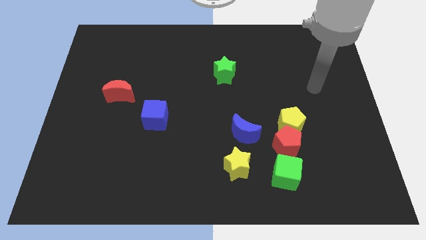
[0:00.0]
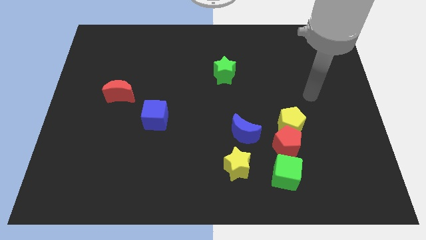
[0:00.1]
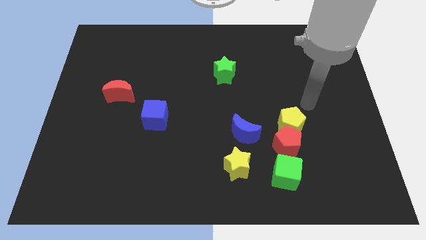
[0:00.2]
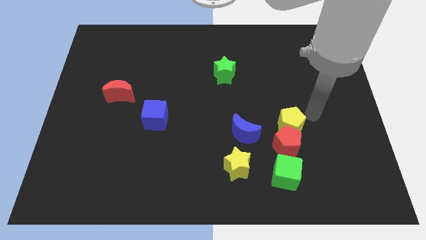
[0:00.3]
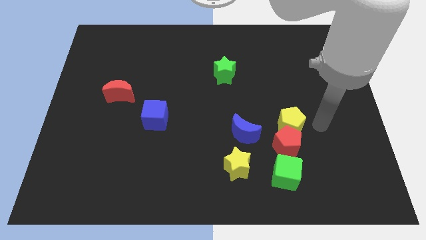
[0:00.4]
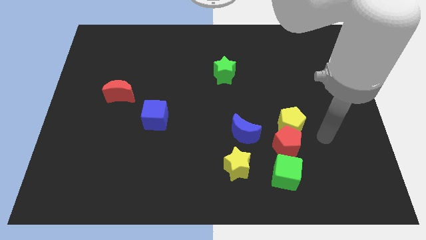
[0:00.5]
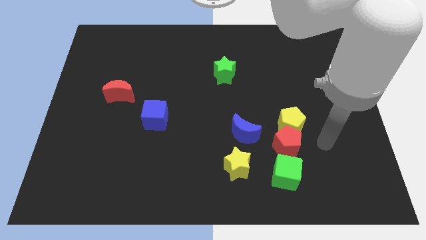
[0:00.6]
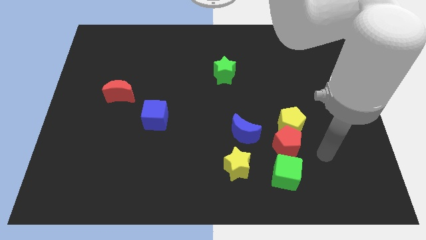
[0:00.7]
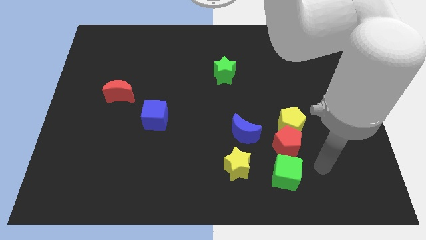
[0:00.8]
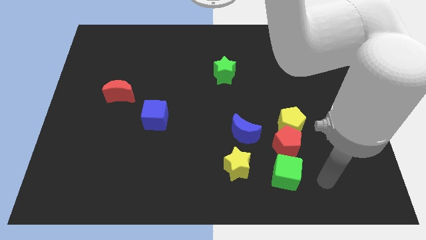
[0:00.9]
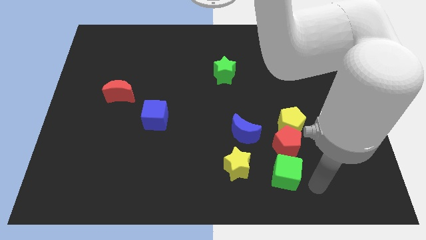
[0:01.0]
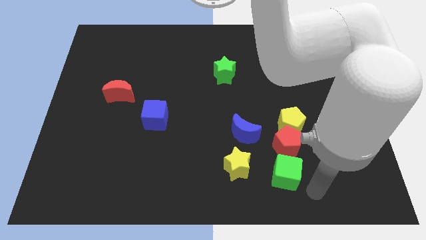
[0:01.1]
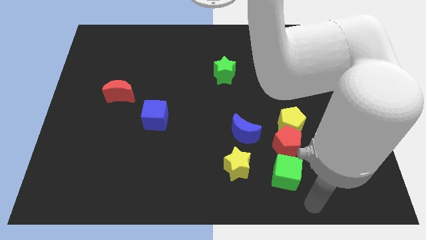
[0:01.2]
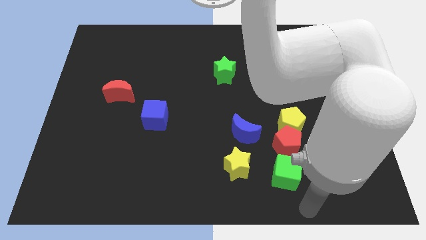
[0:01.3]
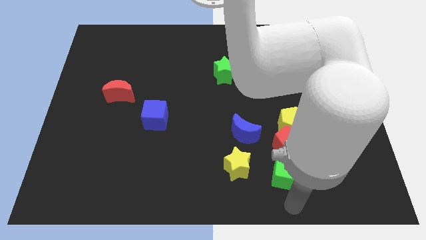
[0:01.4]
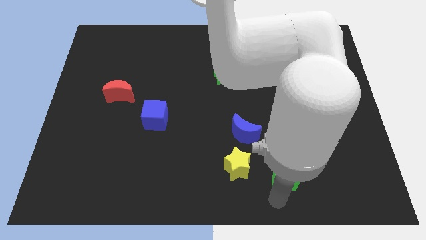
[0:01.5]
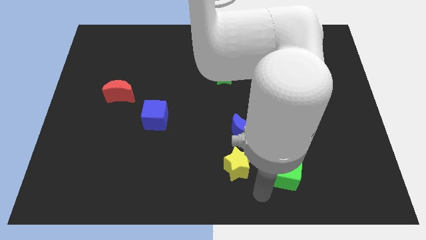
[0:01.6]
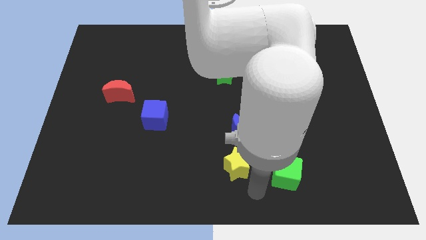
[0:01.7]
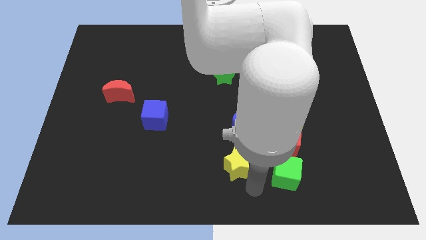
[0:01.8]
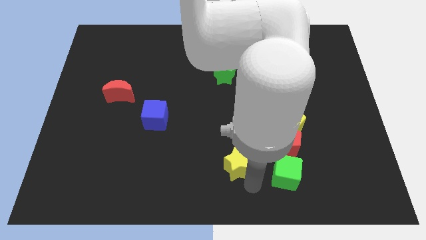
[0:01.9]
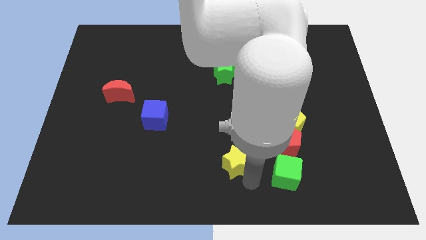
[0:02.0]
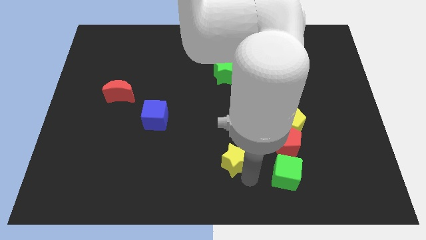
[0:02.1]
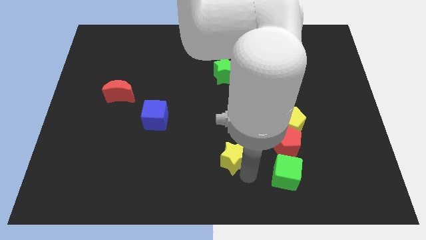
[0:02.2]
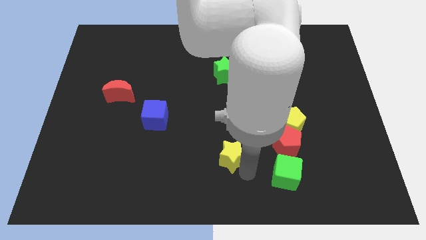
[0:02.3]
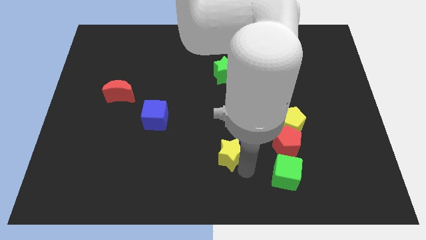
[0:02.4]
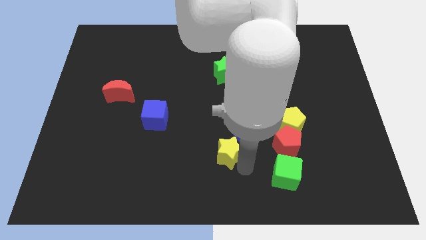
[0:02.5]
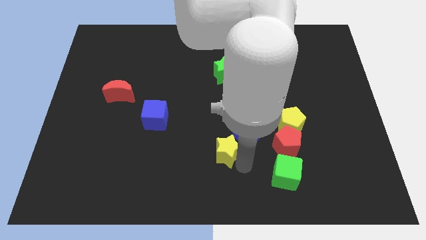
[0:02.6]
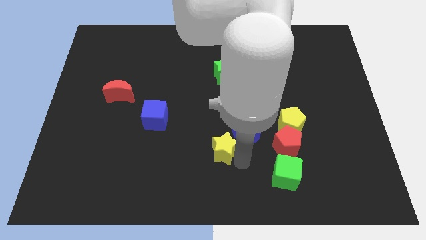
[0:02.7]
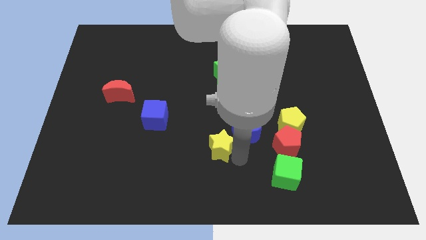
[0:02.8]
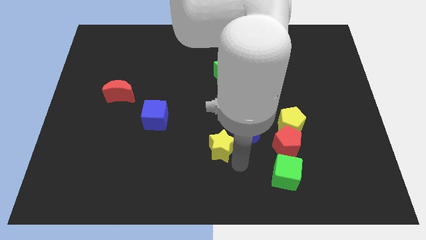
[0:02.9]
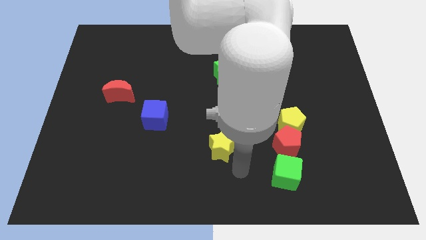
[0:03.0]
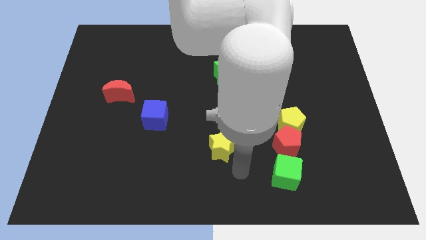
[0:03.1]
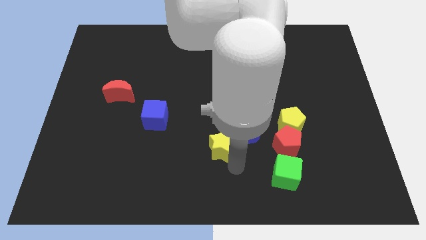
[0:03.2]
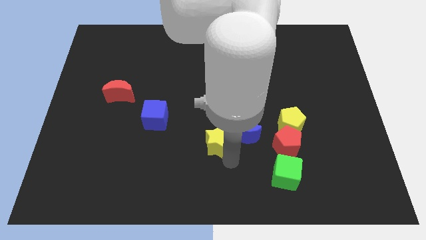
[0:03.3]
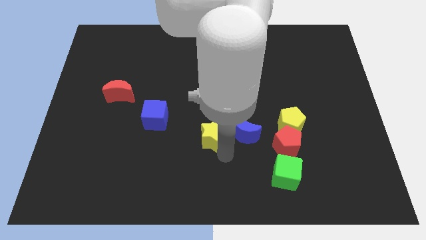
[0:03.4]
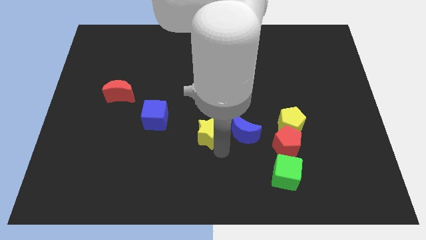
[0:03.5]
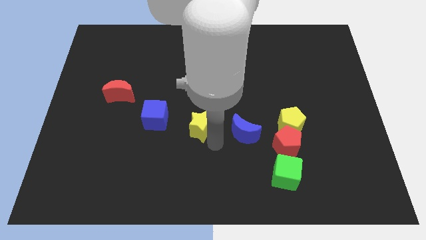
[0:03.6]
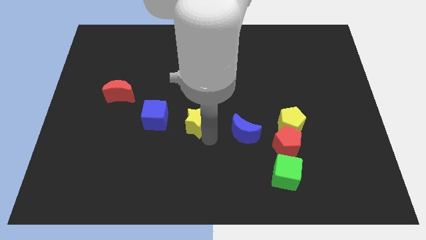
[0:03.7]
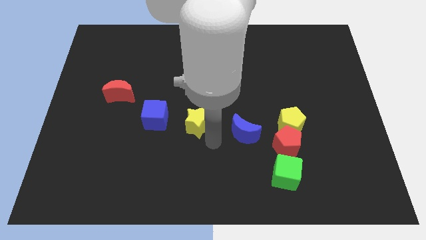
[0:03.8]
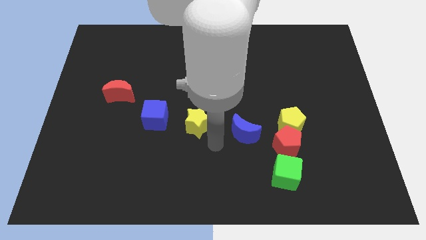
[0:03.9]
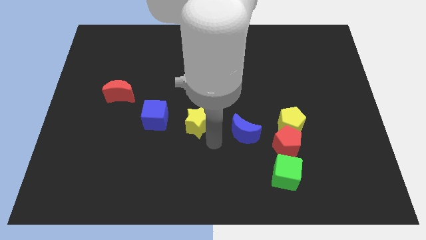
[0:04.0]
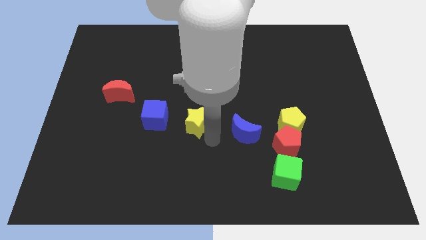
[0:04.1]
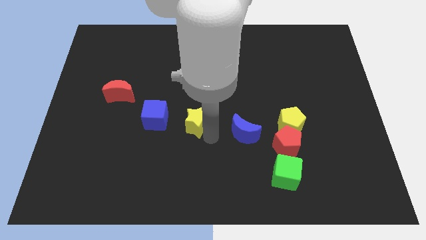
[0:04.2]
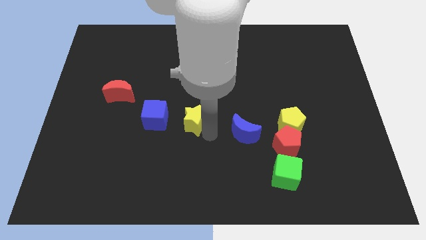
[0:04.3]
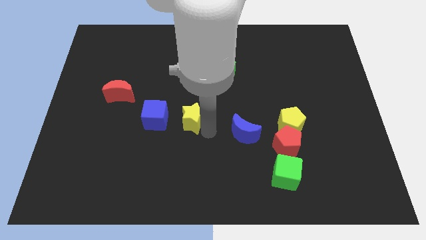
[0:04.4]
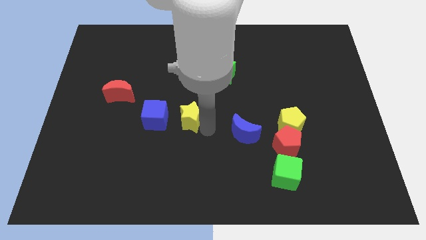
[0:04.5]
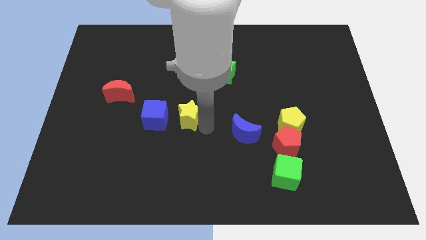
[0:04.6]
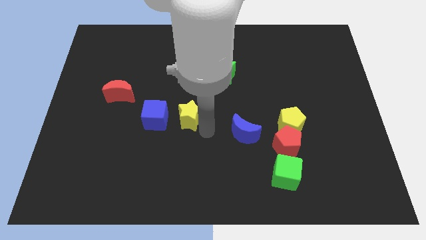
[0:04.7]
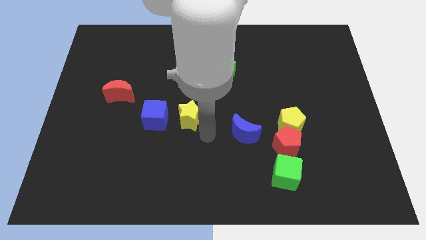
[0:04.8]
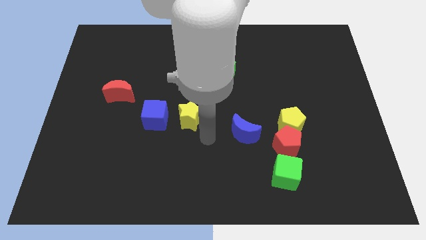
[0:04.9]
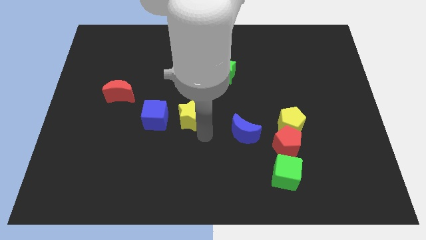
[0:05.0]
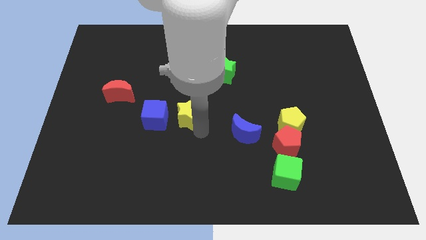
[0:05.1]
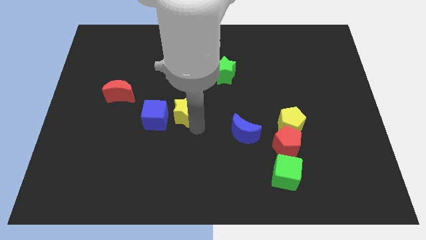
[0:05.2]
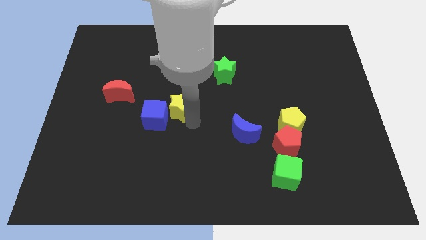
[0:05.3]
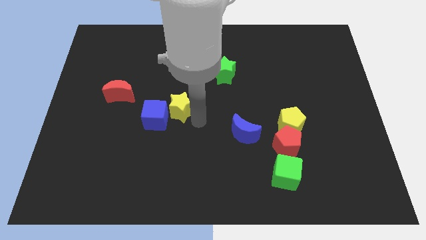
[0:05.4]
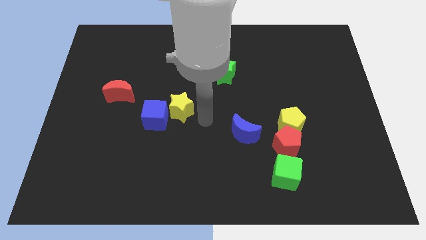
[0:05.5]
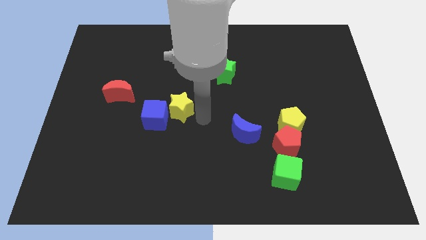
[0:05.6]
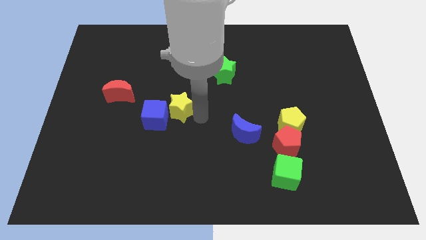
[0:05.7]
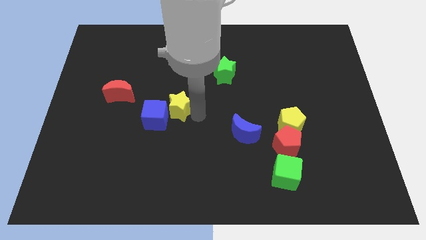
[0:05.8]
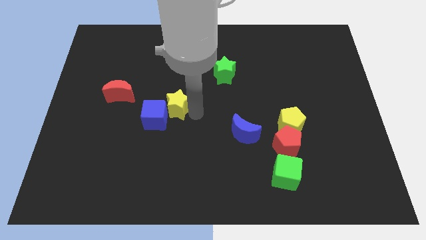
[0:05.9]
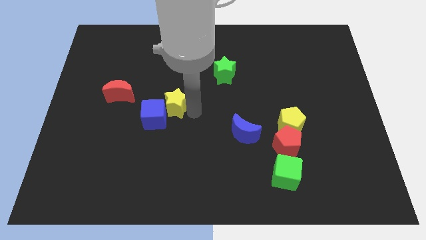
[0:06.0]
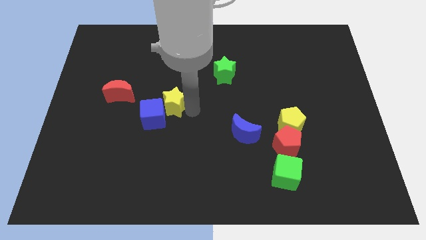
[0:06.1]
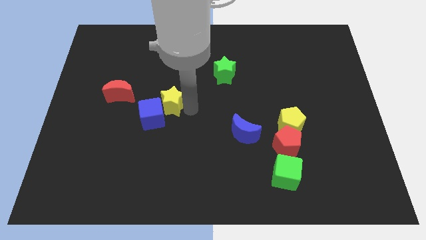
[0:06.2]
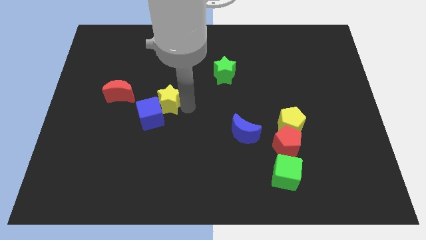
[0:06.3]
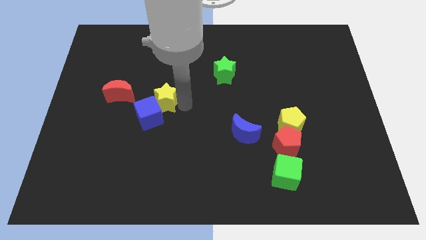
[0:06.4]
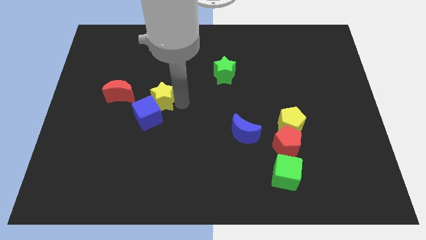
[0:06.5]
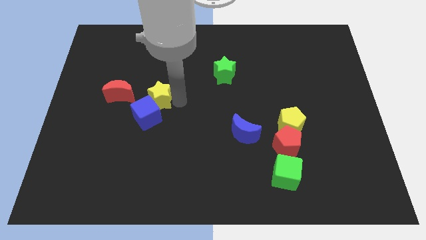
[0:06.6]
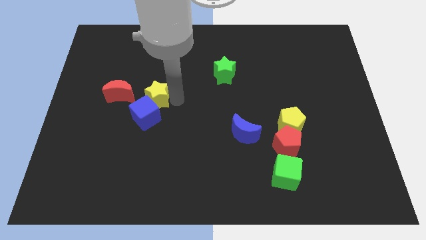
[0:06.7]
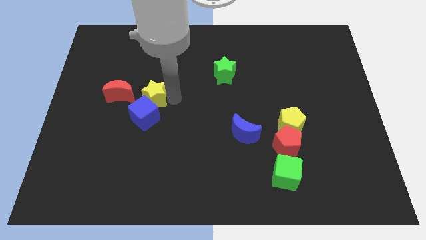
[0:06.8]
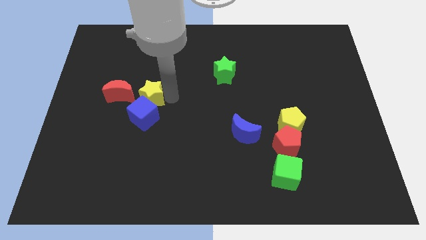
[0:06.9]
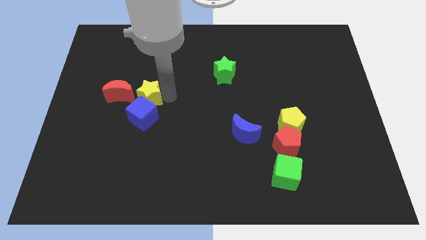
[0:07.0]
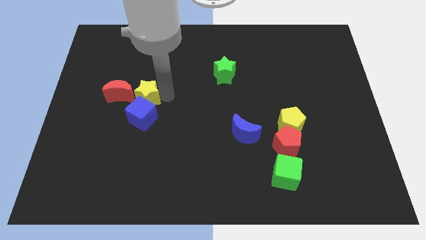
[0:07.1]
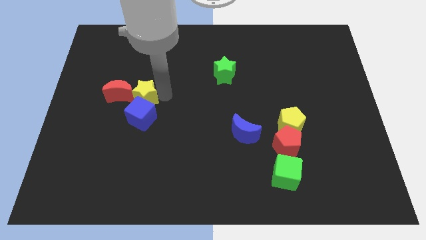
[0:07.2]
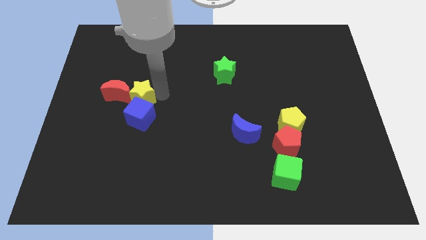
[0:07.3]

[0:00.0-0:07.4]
push the yellow star next to the red moon
